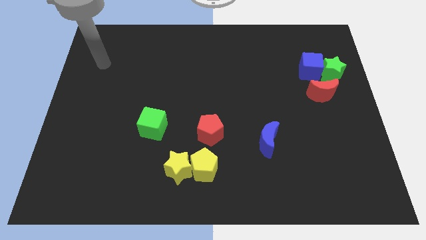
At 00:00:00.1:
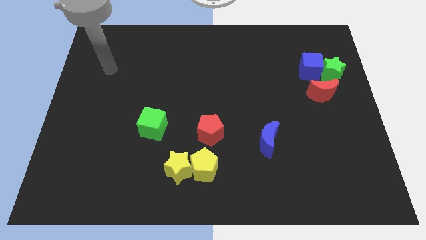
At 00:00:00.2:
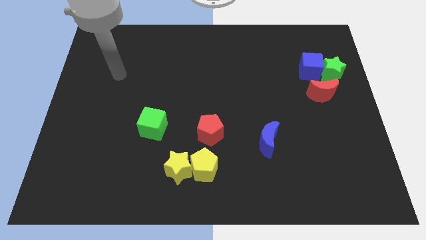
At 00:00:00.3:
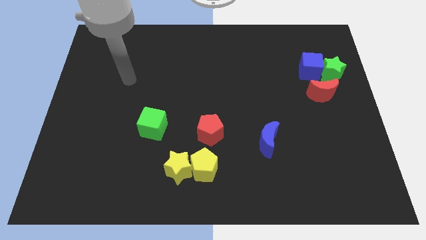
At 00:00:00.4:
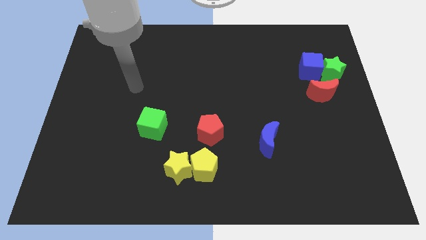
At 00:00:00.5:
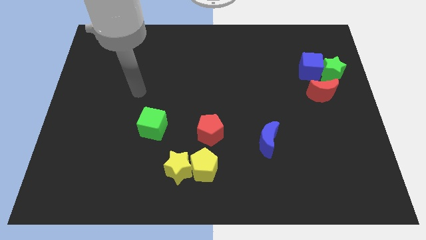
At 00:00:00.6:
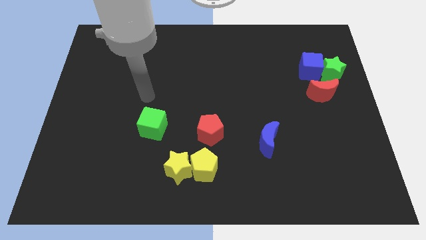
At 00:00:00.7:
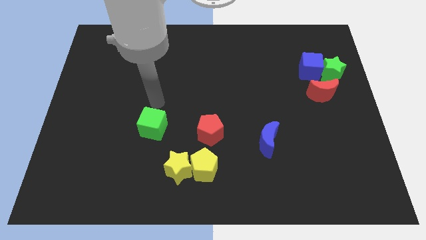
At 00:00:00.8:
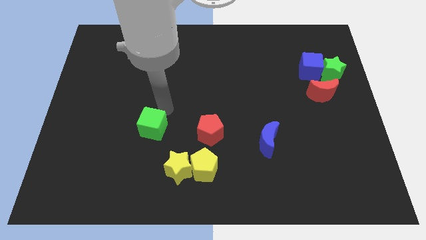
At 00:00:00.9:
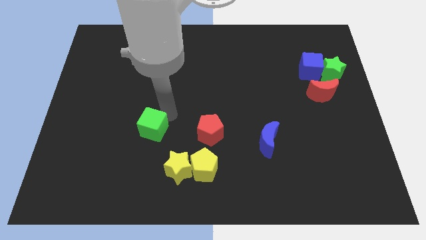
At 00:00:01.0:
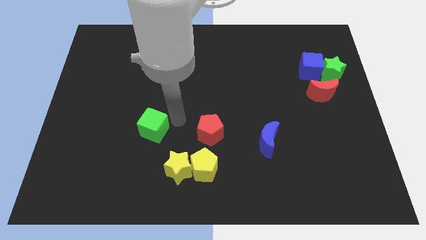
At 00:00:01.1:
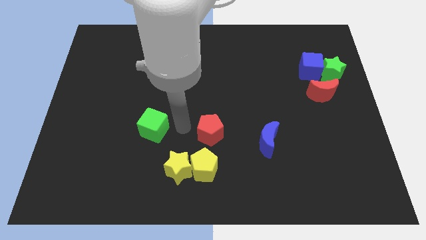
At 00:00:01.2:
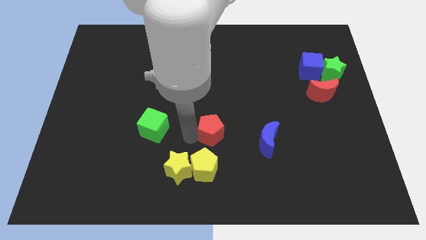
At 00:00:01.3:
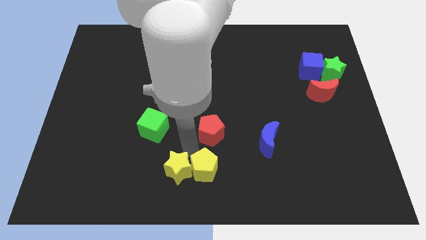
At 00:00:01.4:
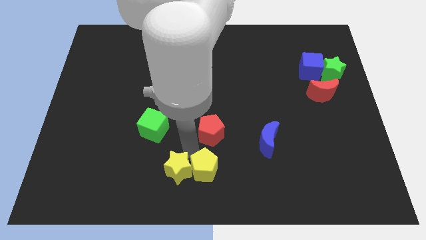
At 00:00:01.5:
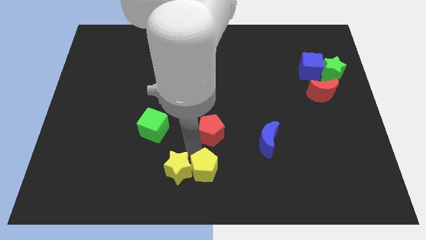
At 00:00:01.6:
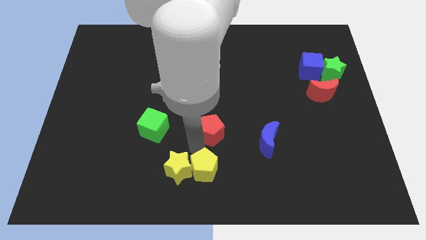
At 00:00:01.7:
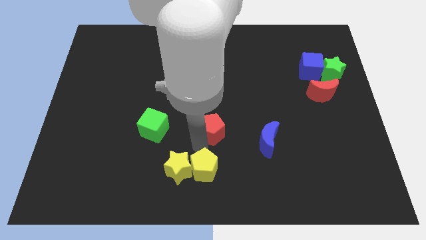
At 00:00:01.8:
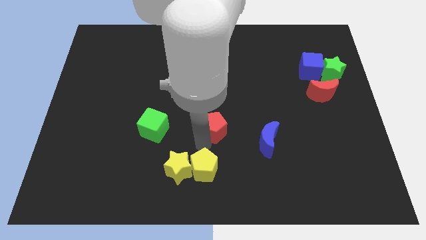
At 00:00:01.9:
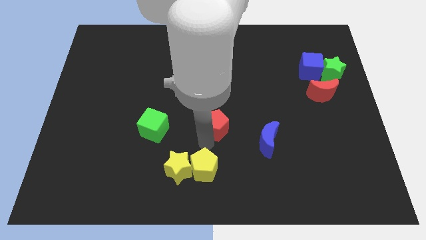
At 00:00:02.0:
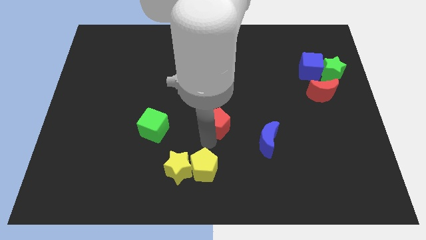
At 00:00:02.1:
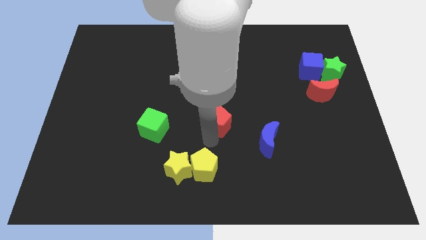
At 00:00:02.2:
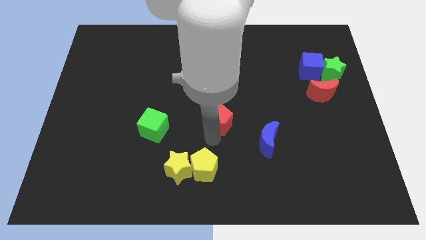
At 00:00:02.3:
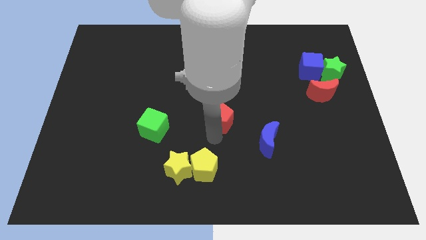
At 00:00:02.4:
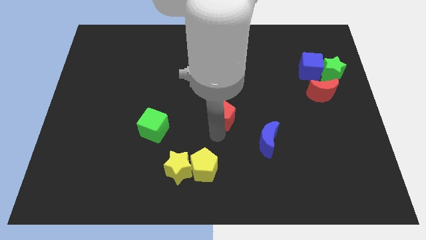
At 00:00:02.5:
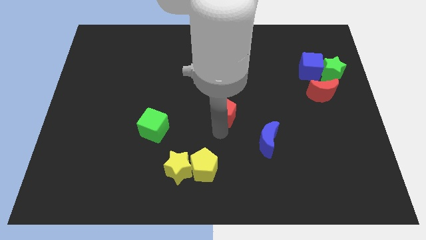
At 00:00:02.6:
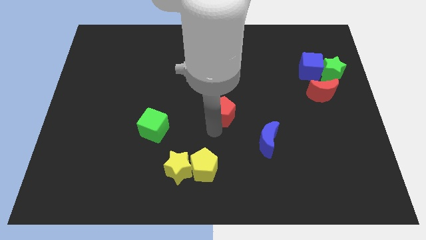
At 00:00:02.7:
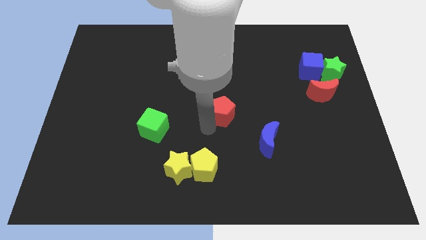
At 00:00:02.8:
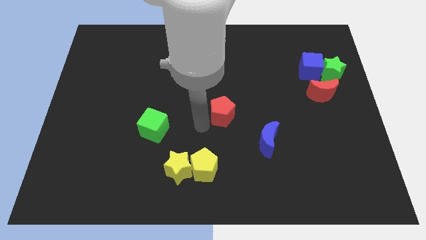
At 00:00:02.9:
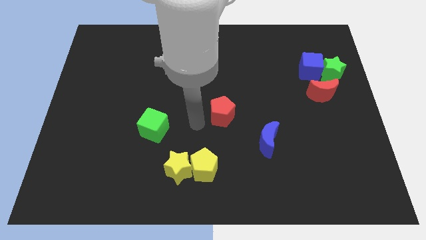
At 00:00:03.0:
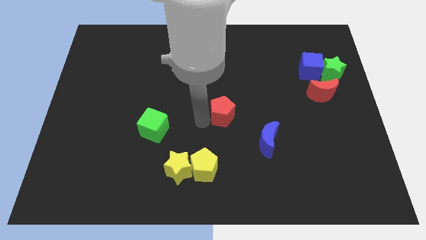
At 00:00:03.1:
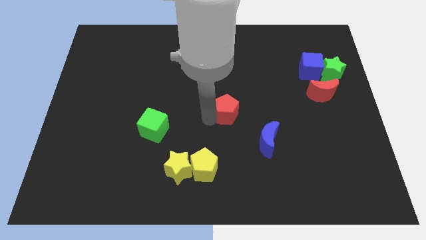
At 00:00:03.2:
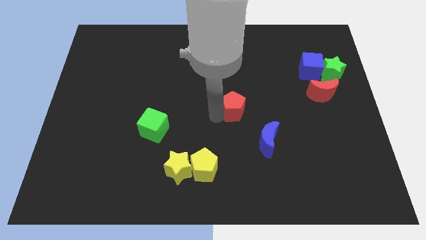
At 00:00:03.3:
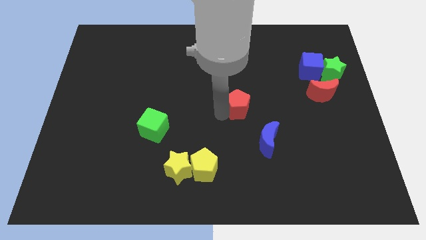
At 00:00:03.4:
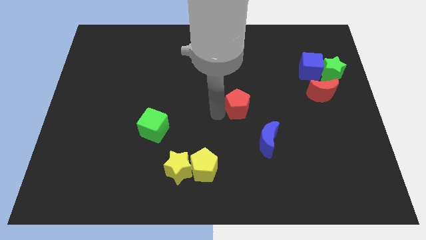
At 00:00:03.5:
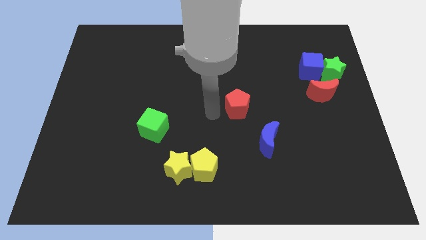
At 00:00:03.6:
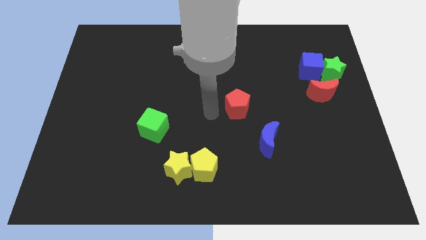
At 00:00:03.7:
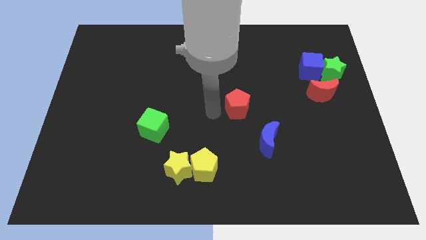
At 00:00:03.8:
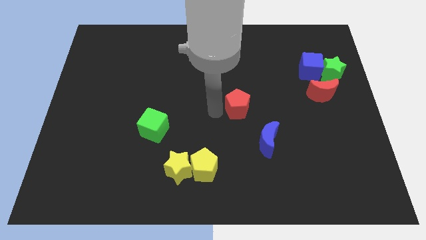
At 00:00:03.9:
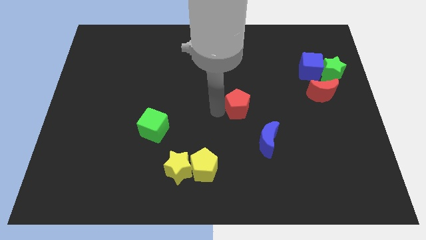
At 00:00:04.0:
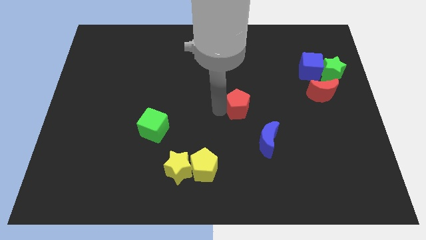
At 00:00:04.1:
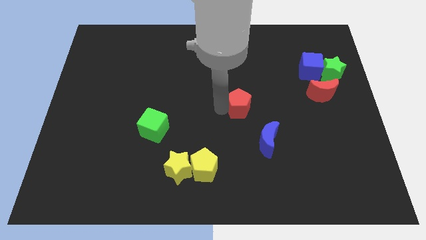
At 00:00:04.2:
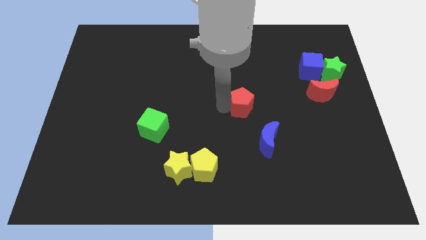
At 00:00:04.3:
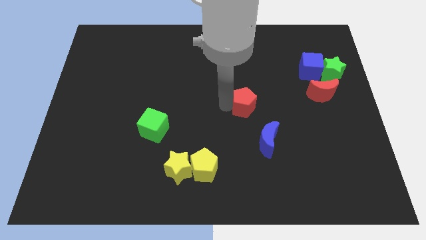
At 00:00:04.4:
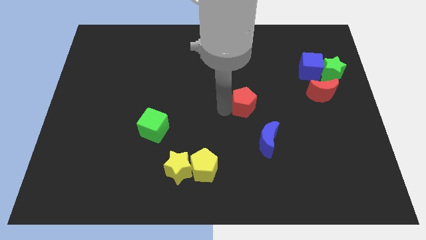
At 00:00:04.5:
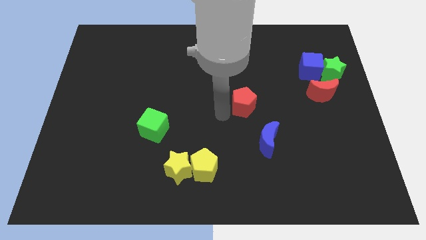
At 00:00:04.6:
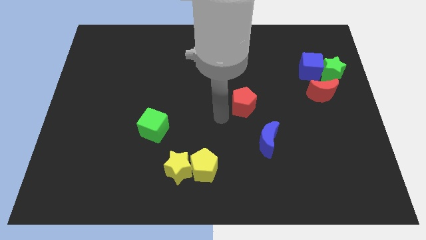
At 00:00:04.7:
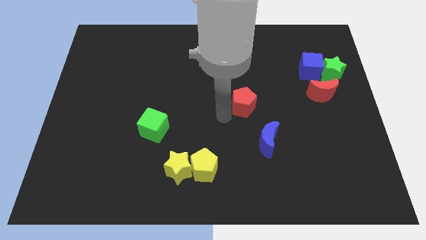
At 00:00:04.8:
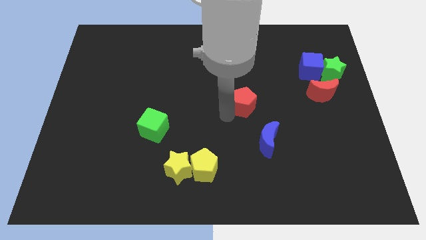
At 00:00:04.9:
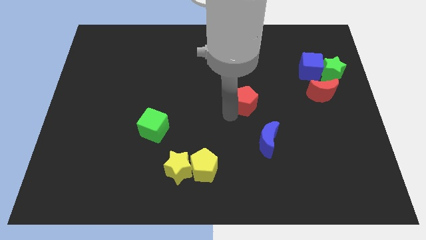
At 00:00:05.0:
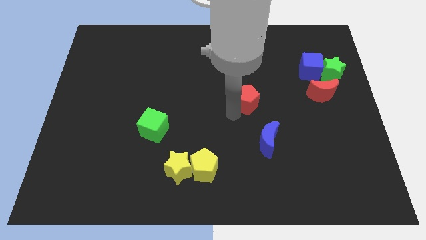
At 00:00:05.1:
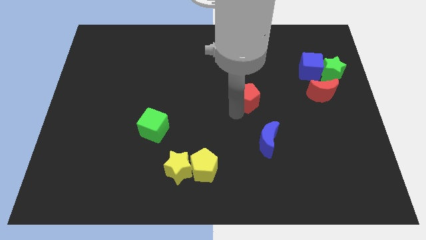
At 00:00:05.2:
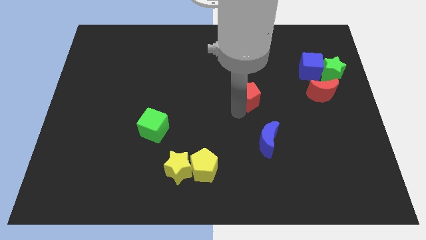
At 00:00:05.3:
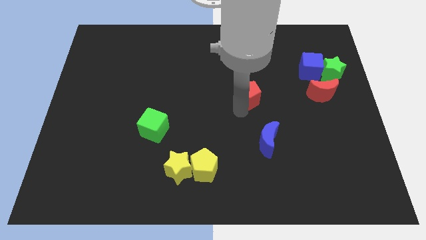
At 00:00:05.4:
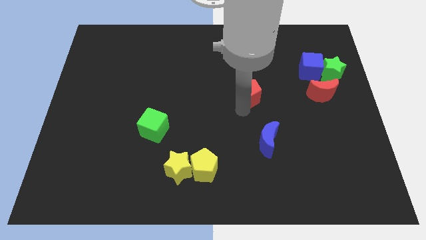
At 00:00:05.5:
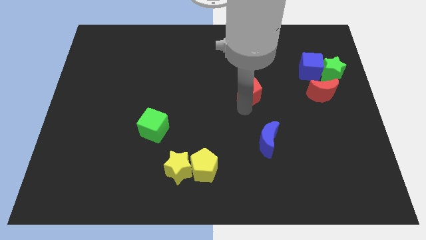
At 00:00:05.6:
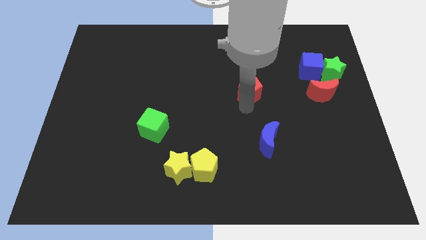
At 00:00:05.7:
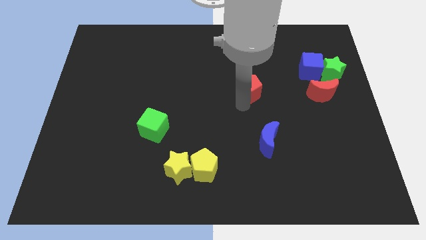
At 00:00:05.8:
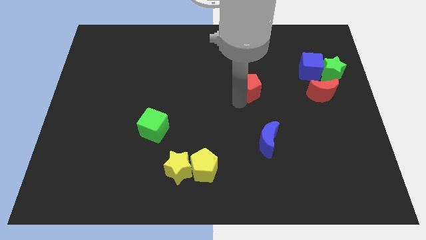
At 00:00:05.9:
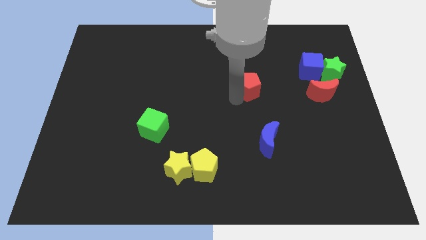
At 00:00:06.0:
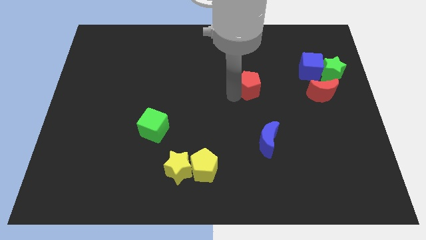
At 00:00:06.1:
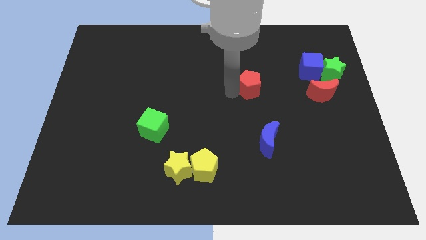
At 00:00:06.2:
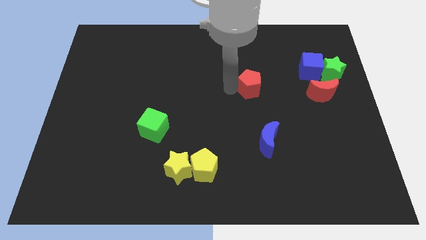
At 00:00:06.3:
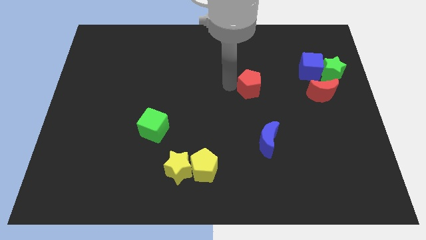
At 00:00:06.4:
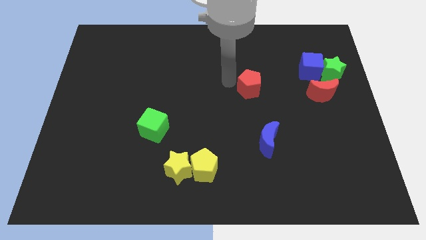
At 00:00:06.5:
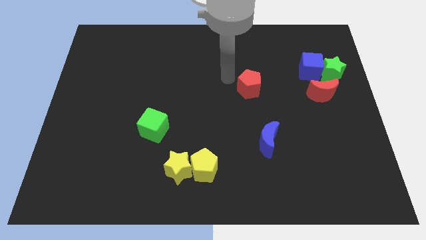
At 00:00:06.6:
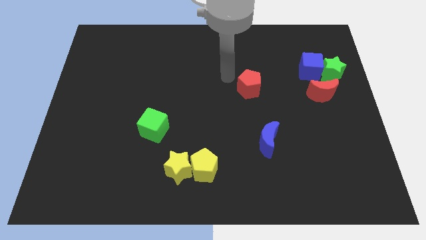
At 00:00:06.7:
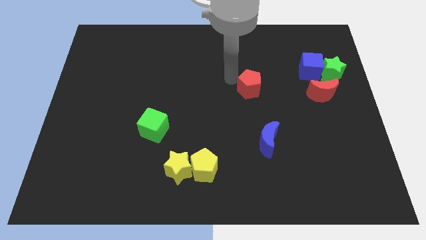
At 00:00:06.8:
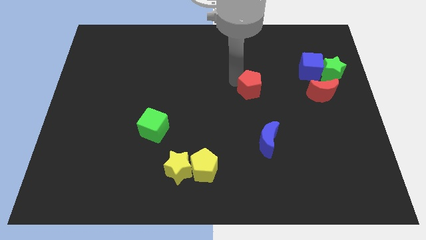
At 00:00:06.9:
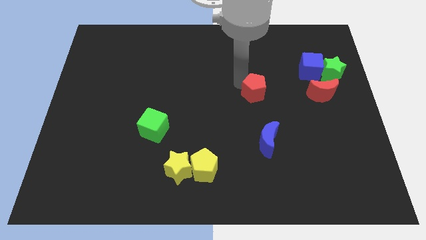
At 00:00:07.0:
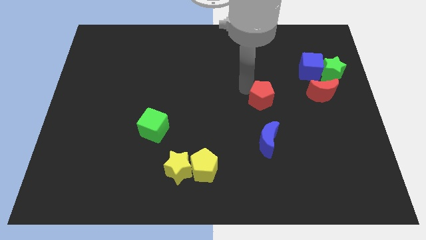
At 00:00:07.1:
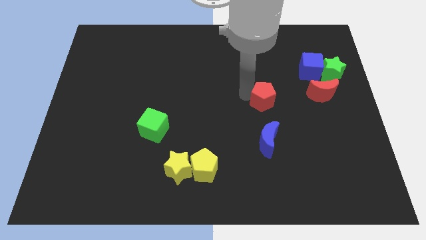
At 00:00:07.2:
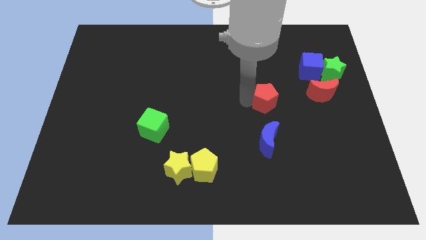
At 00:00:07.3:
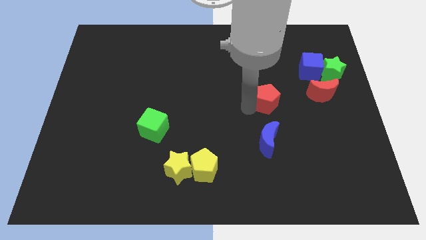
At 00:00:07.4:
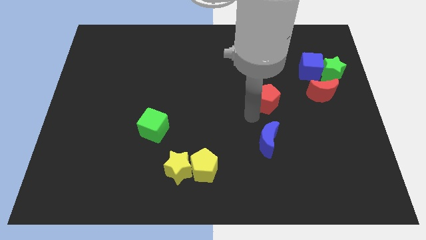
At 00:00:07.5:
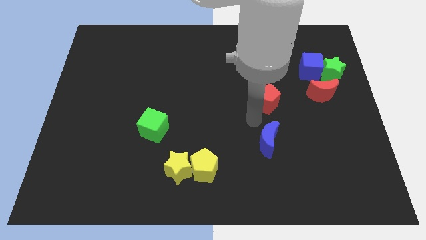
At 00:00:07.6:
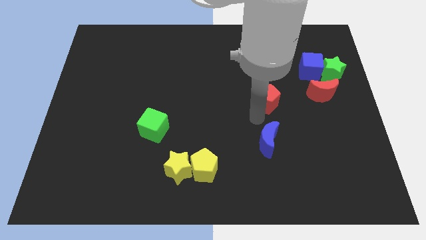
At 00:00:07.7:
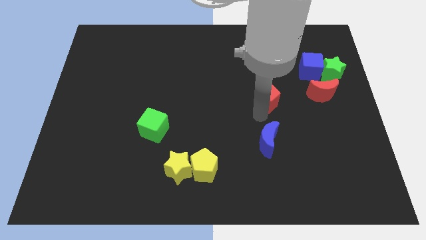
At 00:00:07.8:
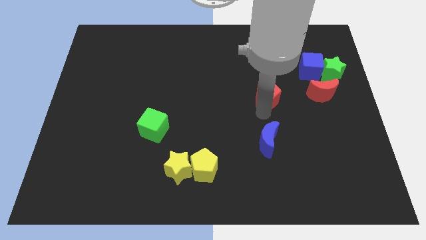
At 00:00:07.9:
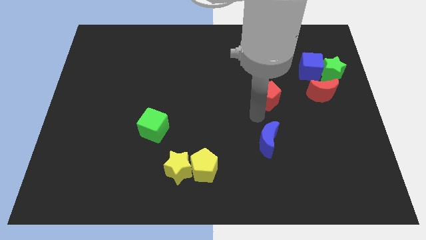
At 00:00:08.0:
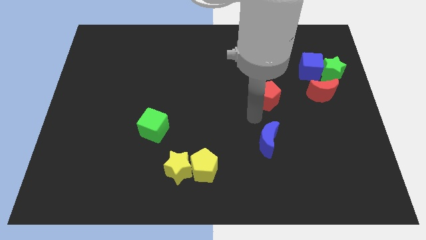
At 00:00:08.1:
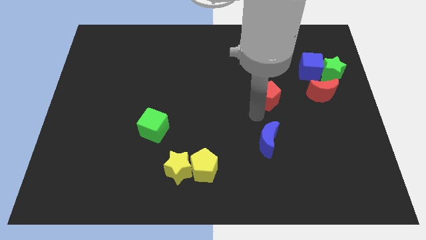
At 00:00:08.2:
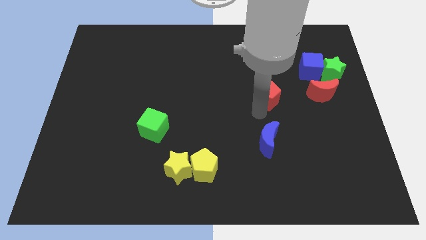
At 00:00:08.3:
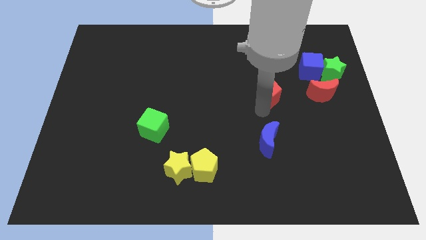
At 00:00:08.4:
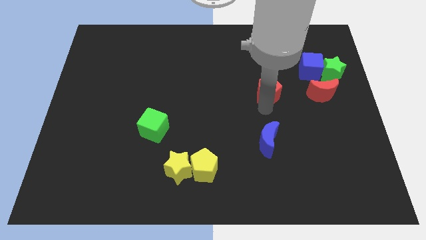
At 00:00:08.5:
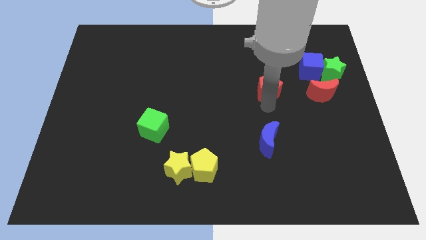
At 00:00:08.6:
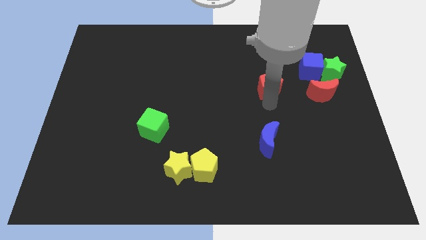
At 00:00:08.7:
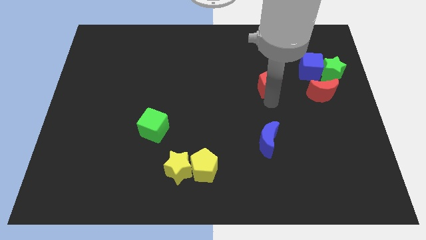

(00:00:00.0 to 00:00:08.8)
slide the red pentagon up and to the right diagonally
